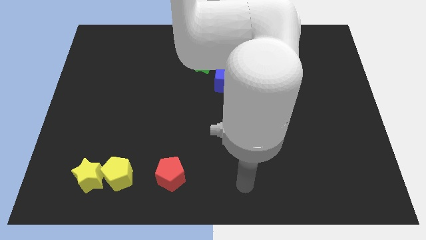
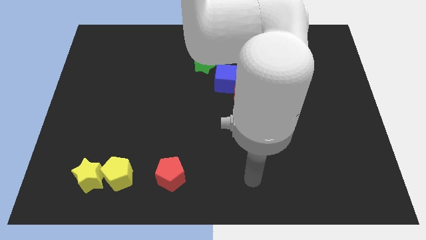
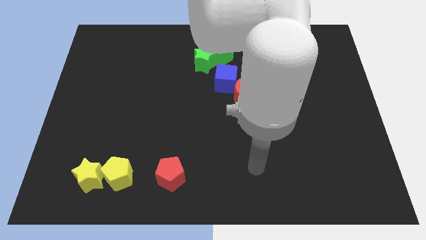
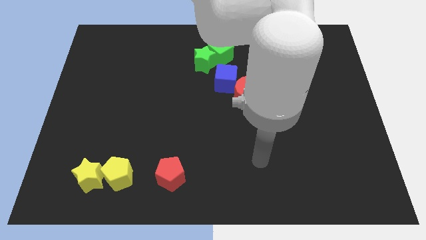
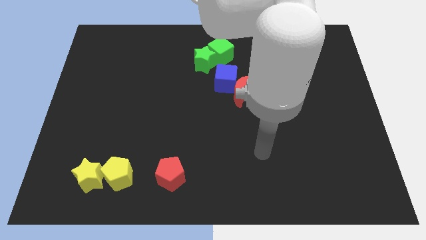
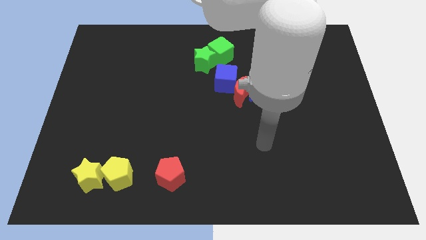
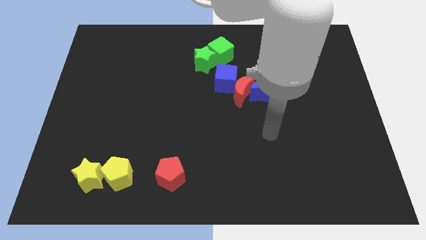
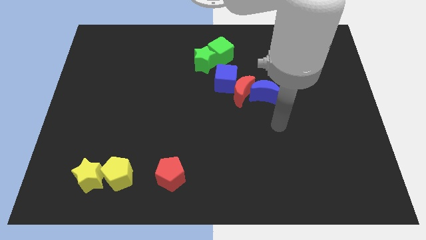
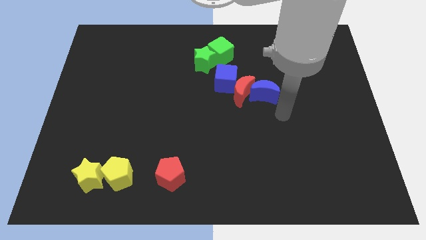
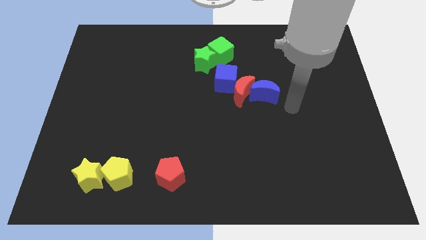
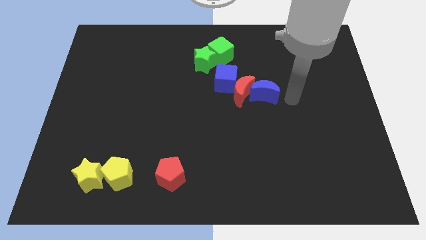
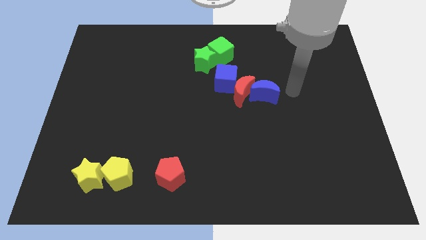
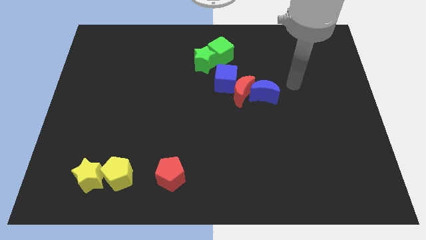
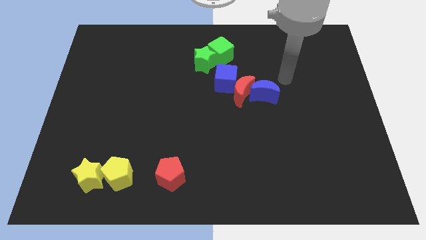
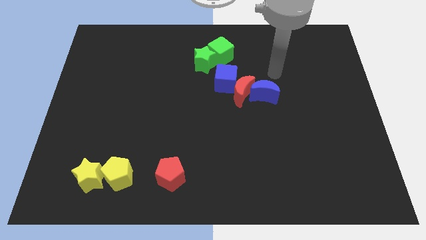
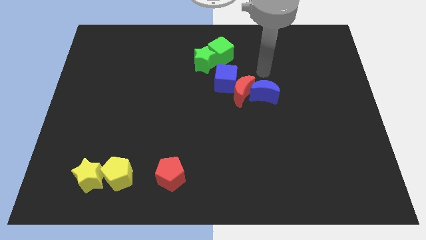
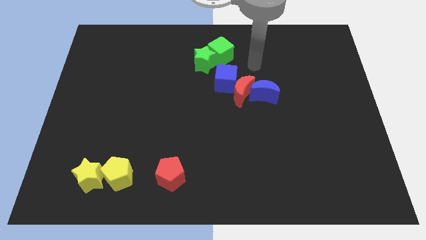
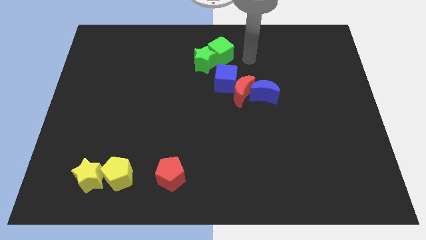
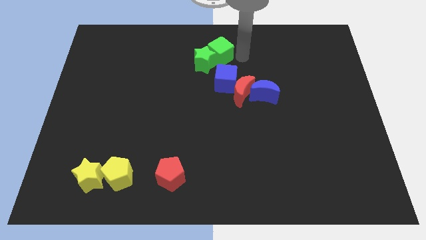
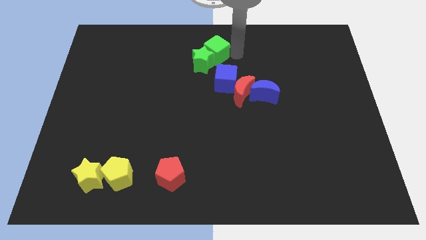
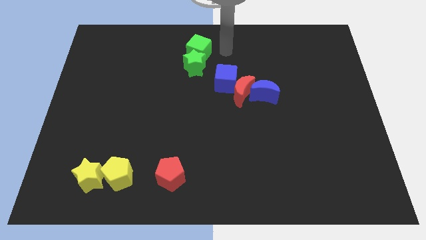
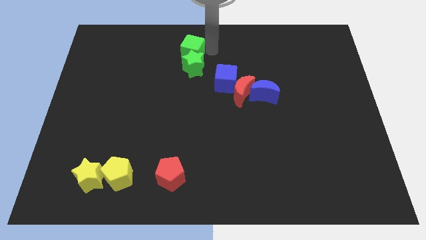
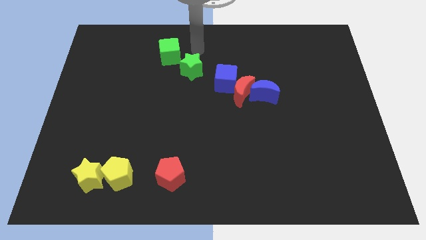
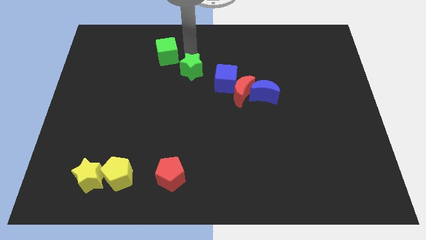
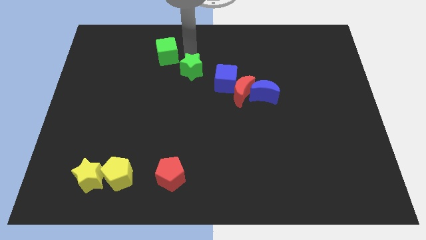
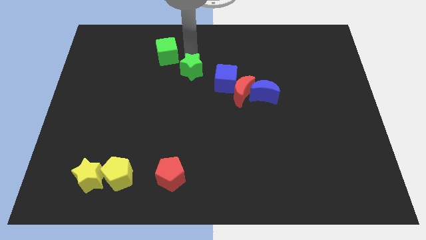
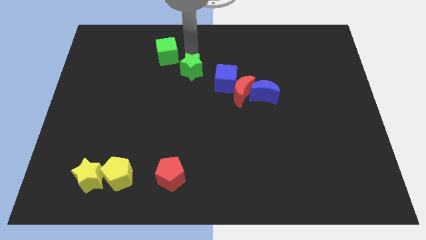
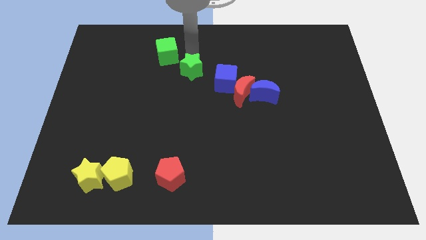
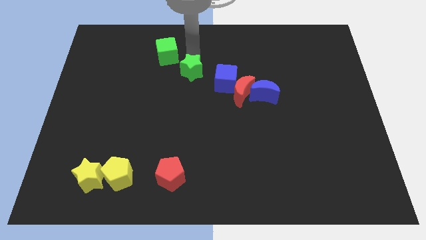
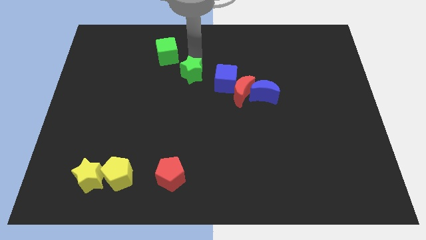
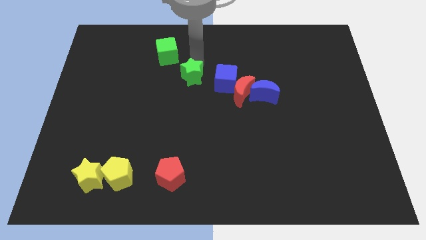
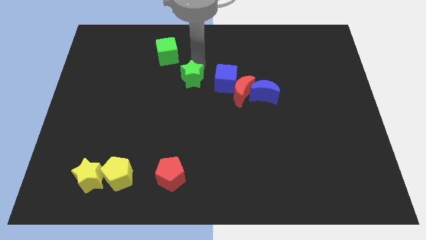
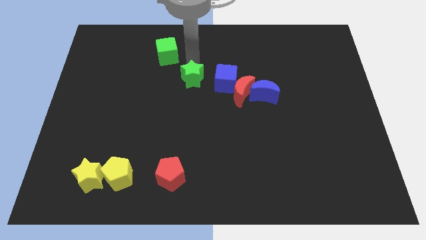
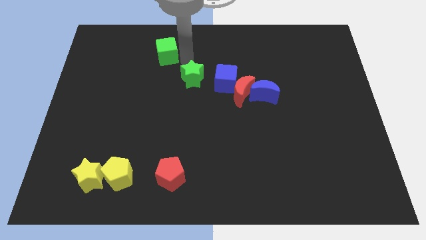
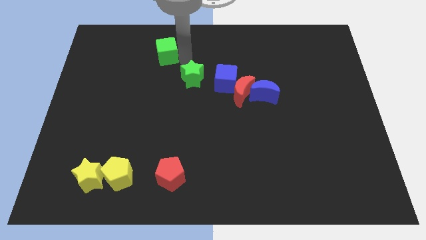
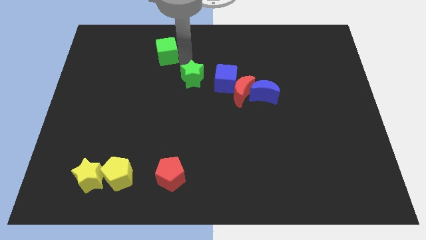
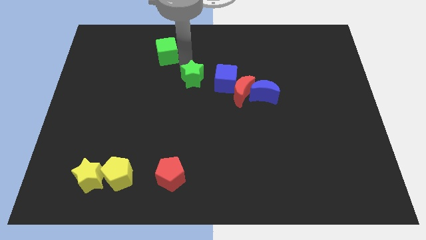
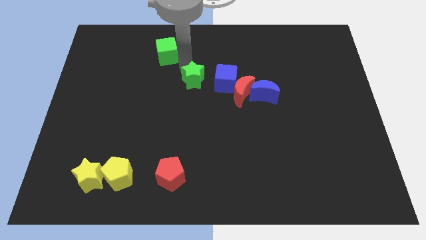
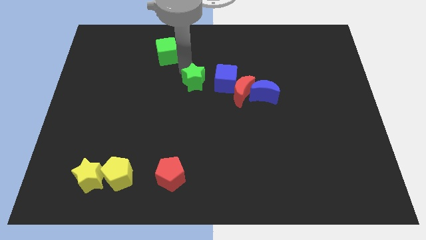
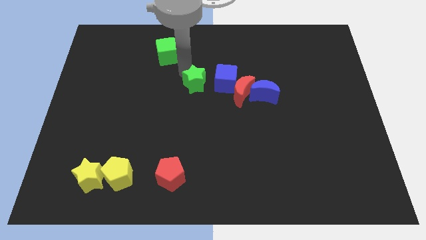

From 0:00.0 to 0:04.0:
slide the green star down a little

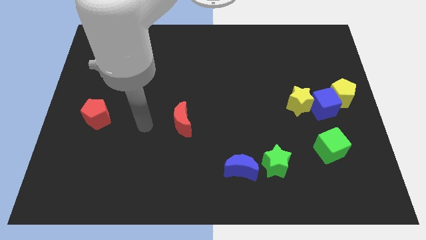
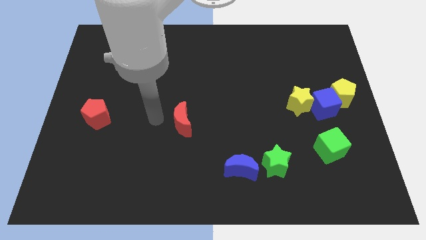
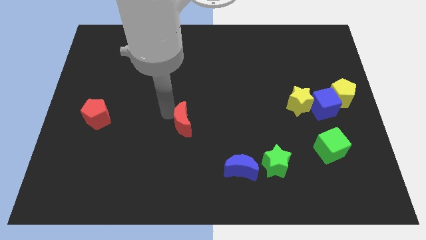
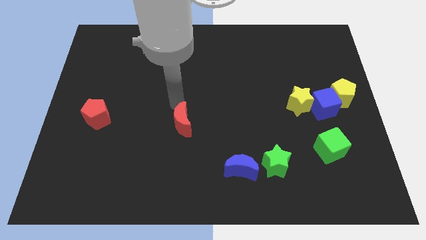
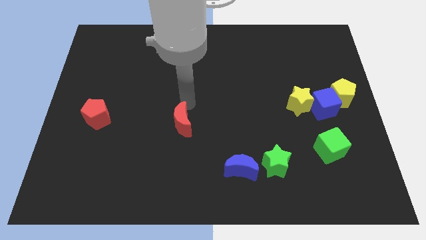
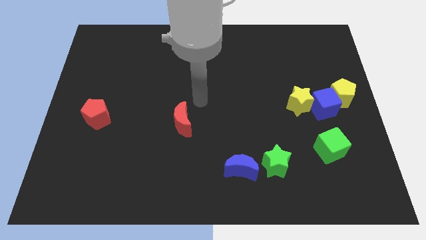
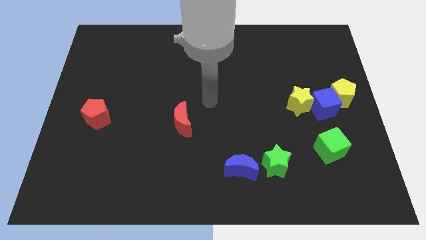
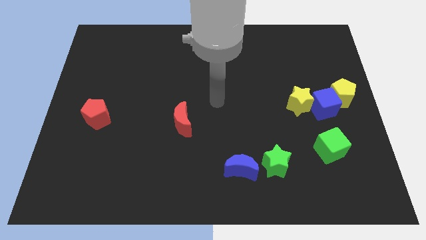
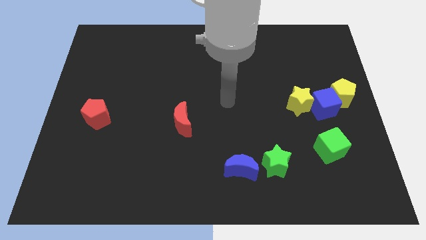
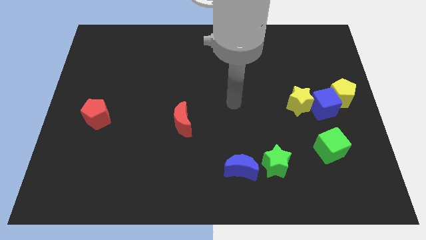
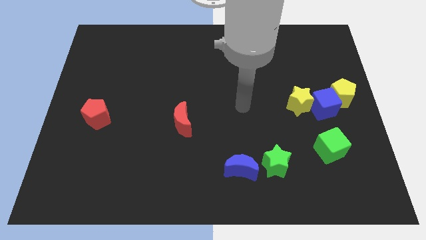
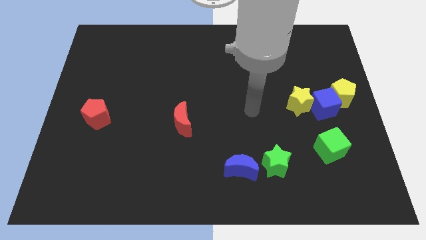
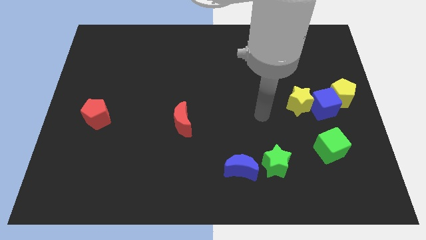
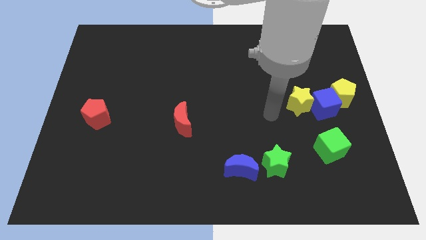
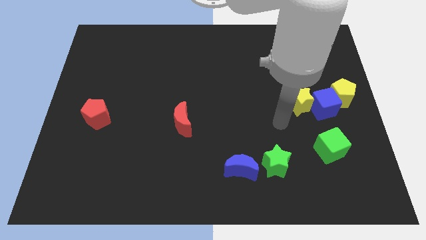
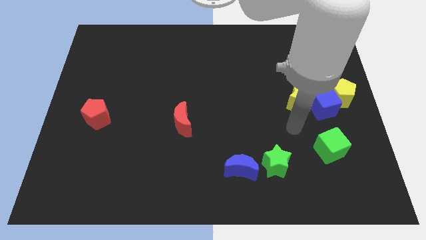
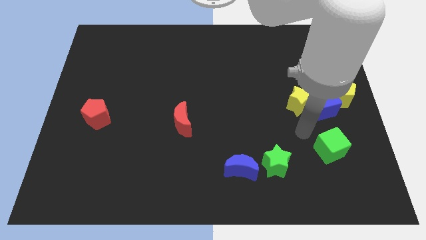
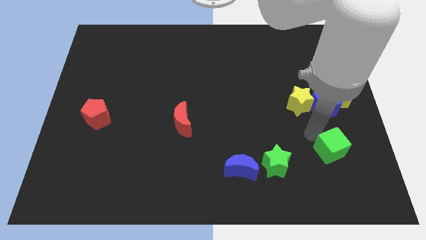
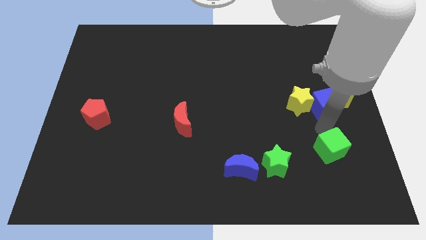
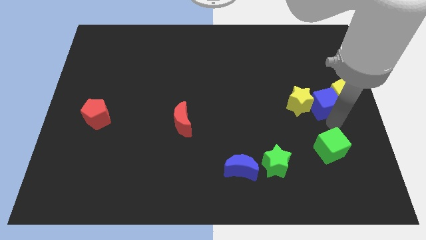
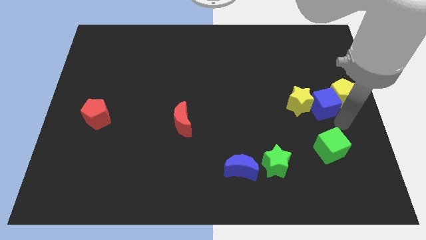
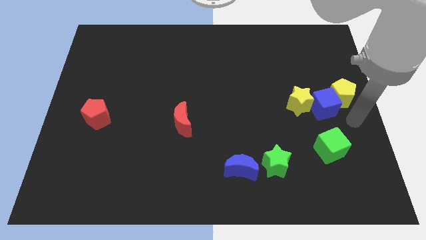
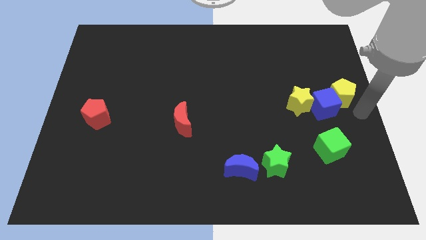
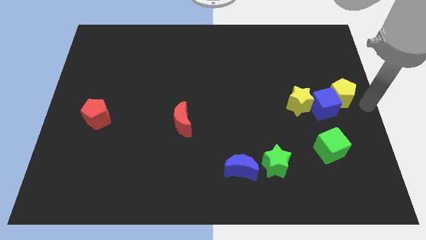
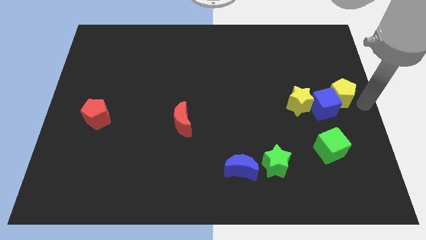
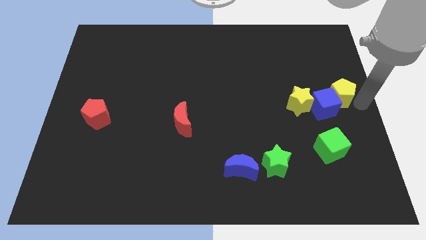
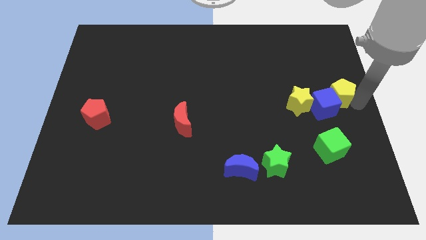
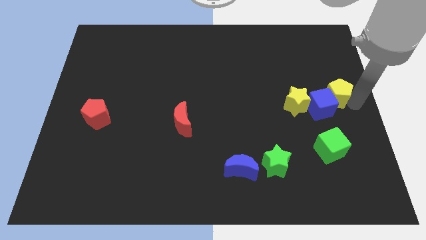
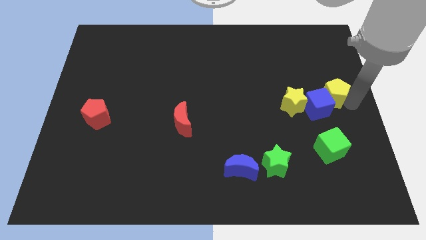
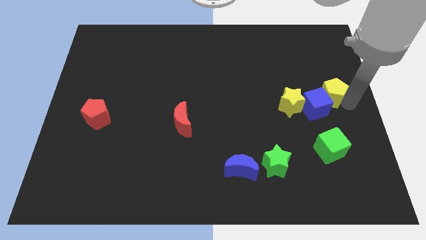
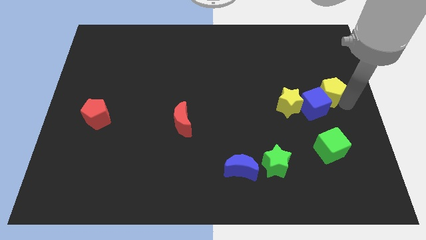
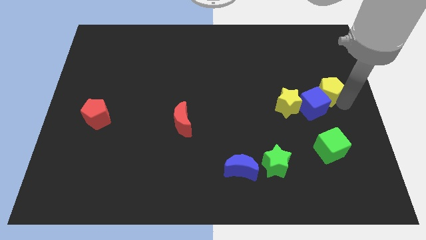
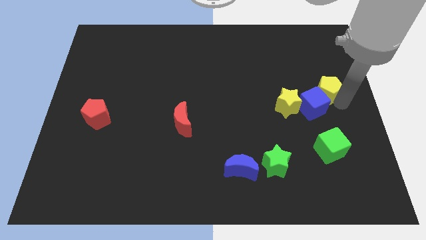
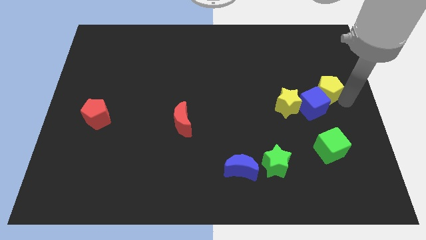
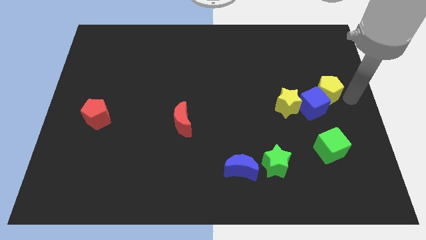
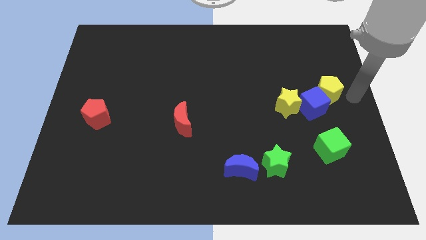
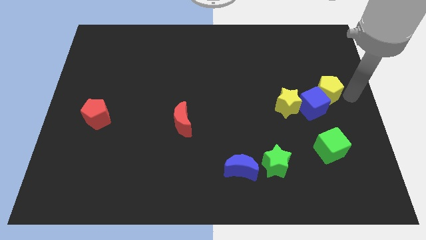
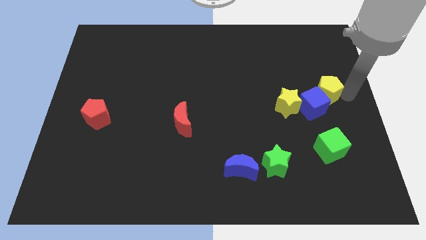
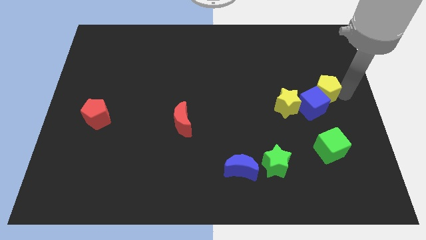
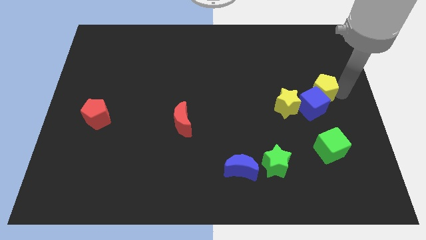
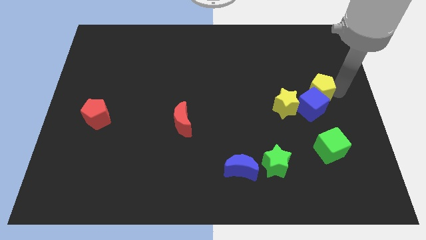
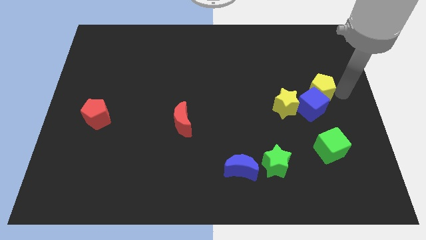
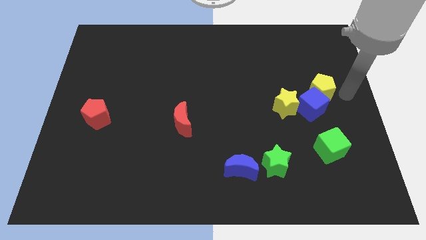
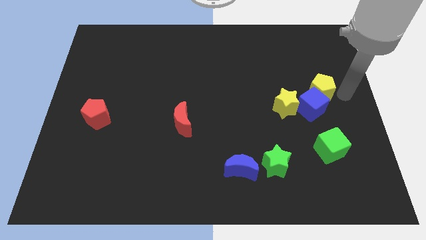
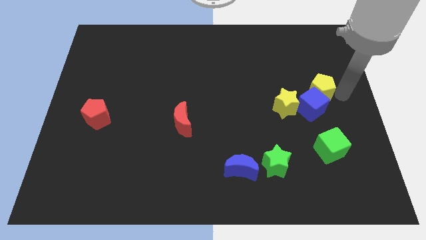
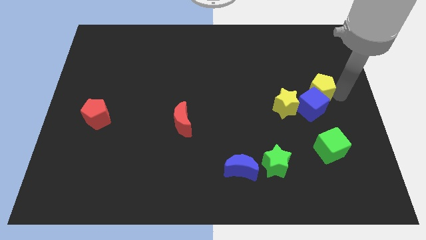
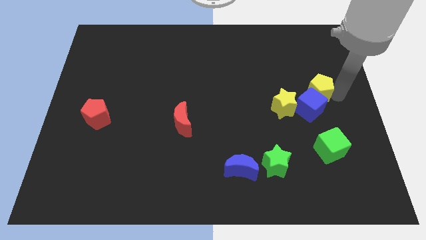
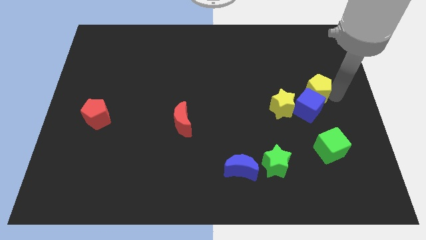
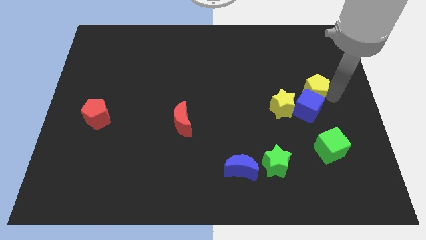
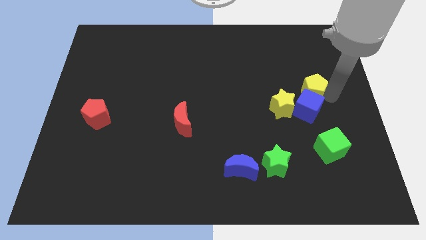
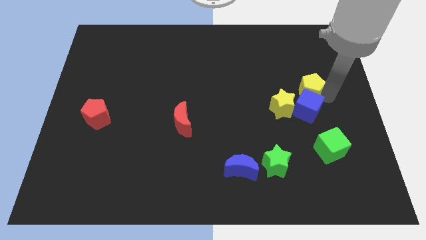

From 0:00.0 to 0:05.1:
push the yellow pentagon left somewhat
